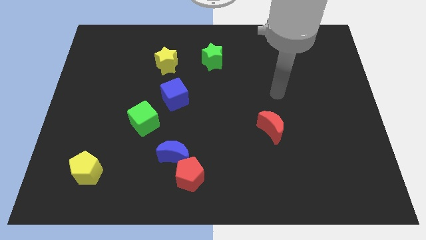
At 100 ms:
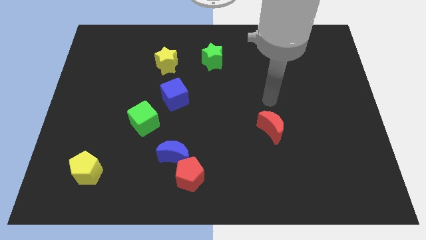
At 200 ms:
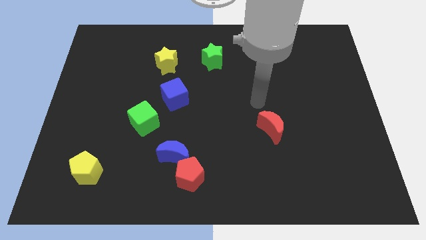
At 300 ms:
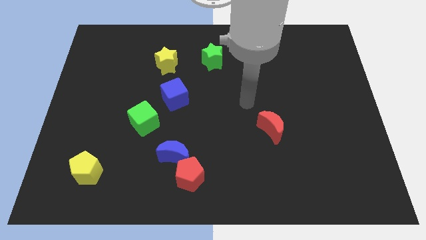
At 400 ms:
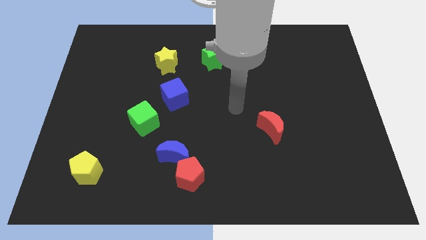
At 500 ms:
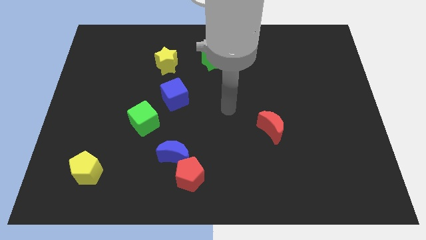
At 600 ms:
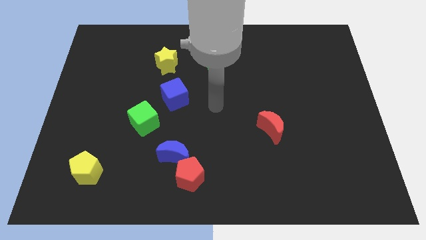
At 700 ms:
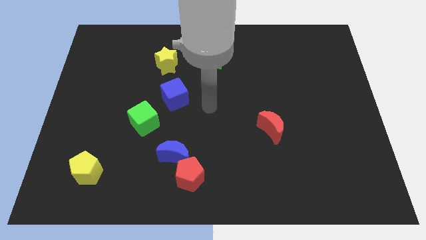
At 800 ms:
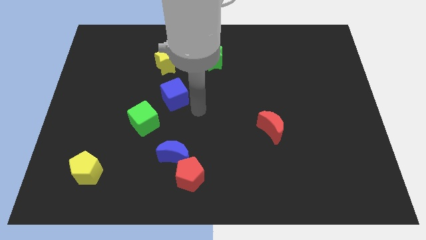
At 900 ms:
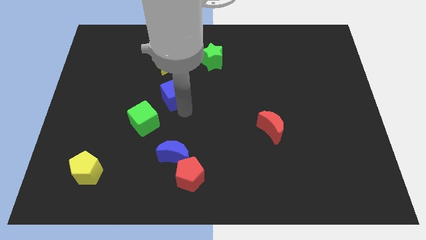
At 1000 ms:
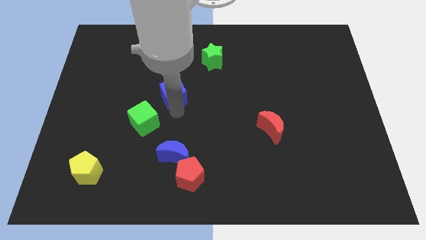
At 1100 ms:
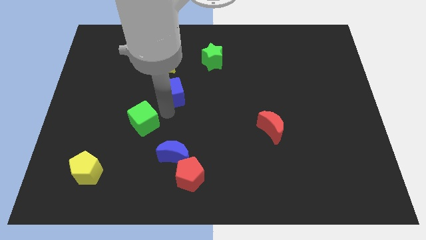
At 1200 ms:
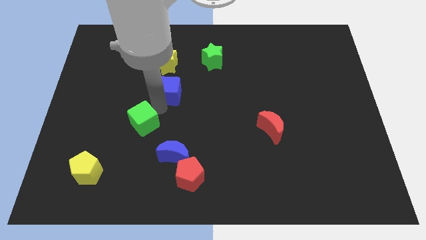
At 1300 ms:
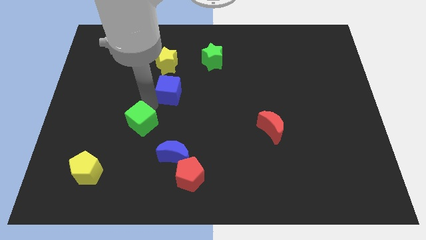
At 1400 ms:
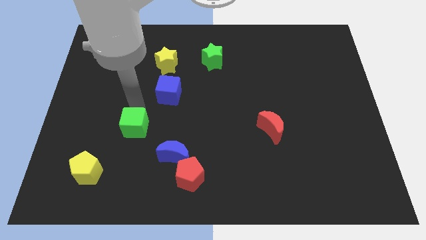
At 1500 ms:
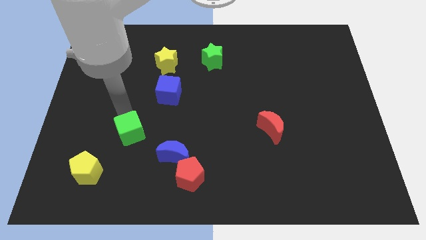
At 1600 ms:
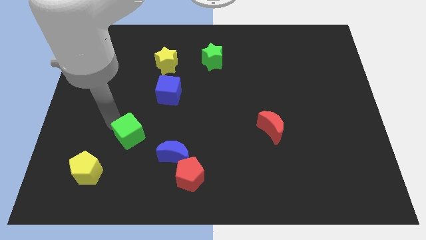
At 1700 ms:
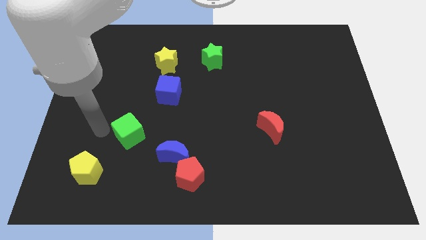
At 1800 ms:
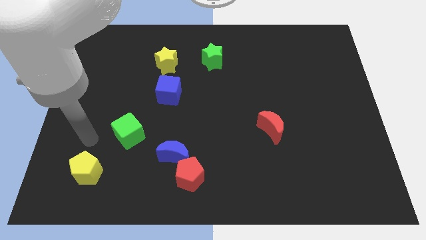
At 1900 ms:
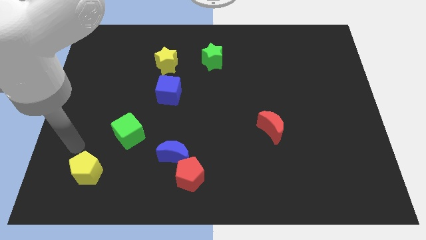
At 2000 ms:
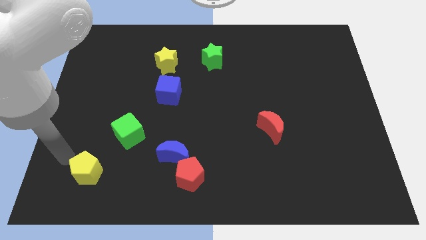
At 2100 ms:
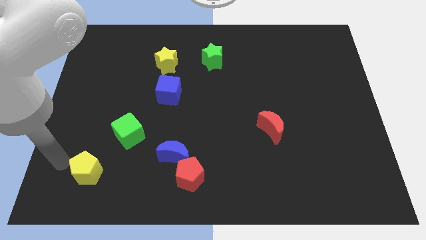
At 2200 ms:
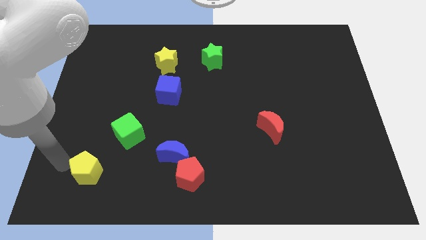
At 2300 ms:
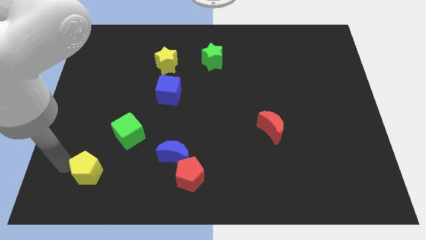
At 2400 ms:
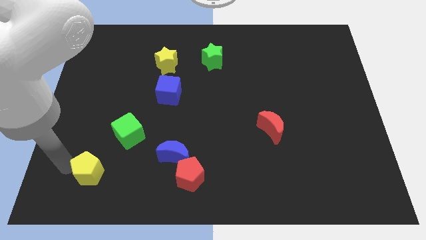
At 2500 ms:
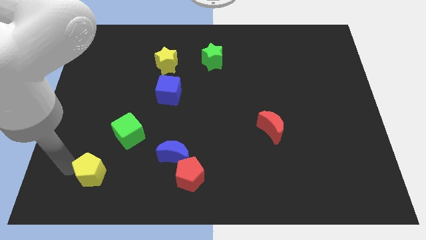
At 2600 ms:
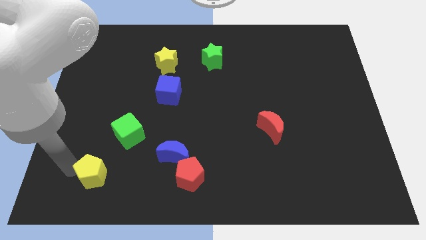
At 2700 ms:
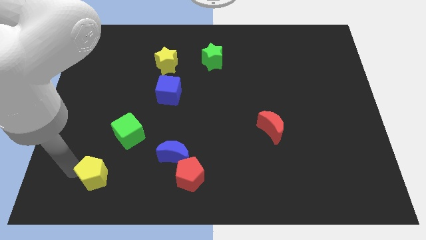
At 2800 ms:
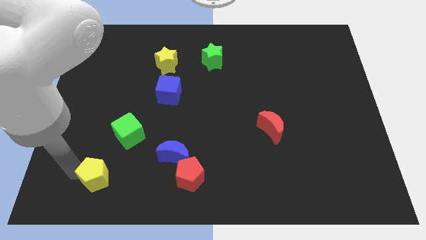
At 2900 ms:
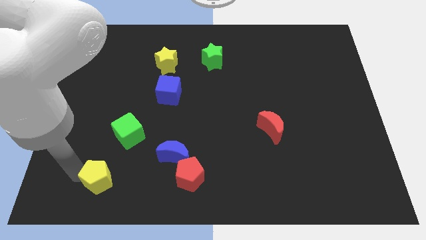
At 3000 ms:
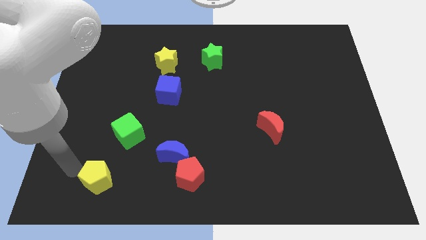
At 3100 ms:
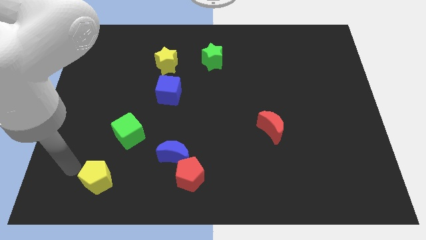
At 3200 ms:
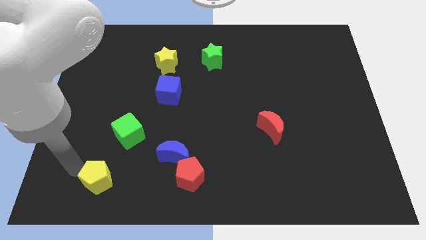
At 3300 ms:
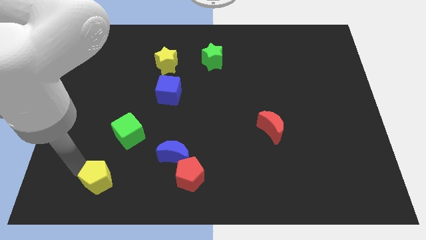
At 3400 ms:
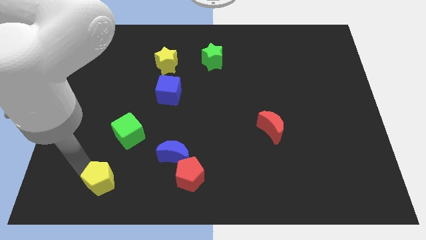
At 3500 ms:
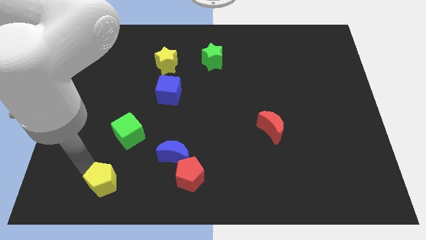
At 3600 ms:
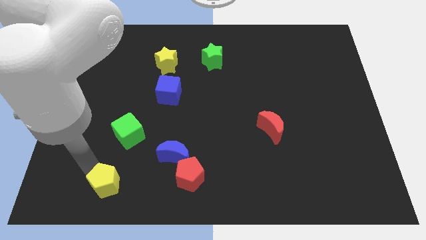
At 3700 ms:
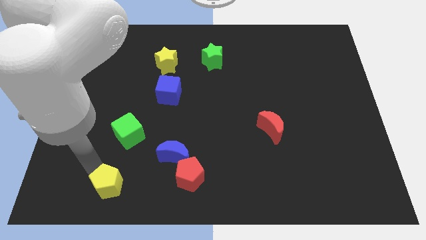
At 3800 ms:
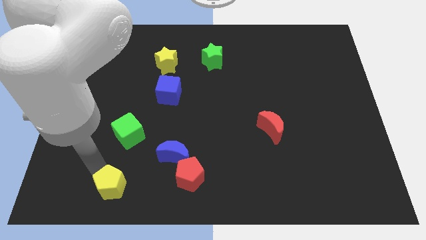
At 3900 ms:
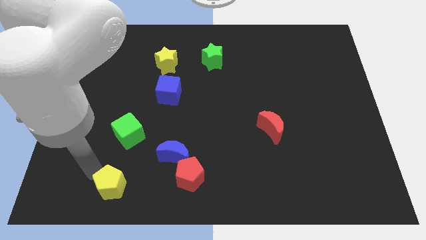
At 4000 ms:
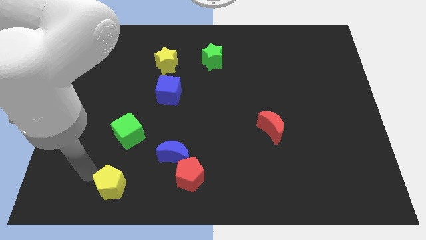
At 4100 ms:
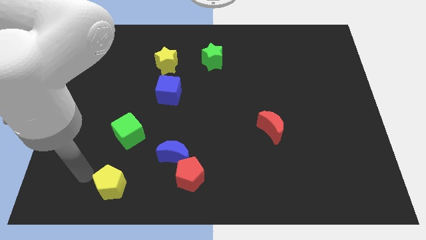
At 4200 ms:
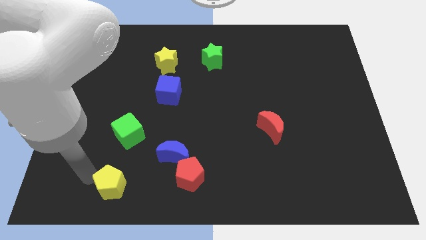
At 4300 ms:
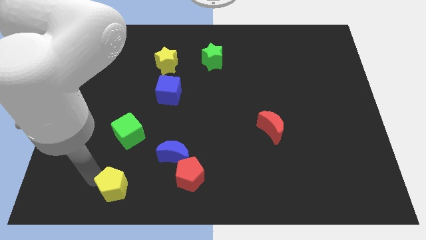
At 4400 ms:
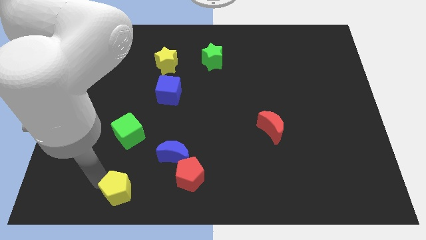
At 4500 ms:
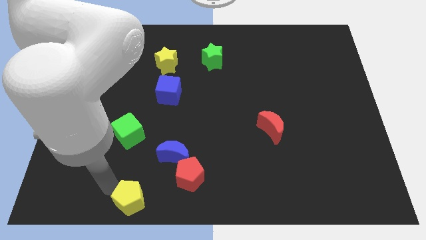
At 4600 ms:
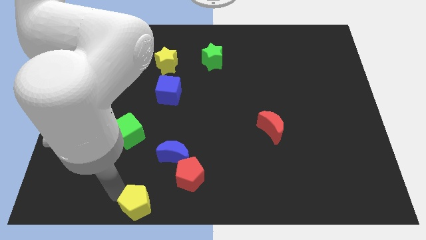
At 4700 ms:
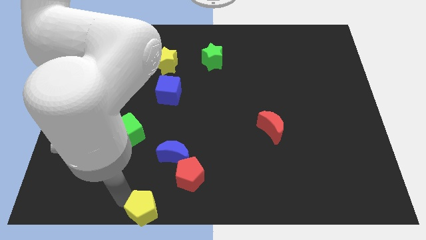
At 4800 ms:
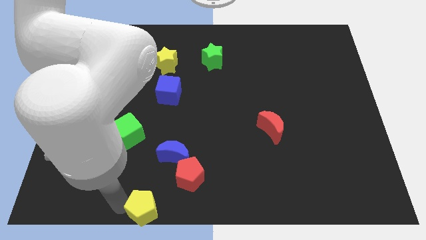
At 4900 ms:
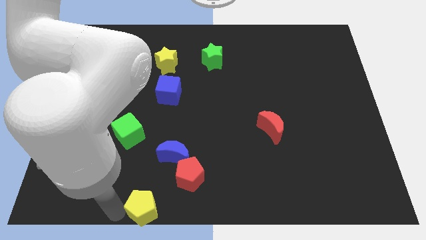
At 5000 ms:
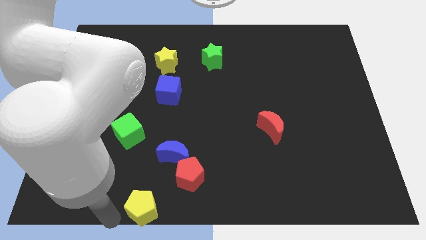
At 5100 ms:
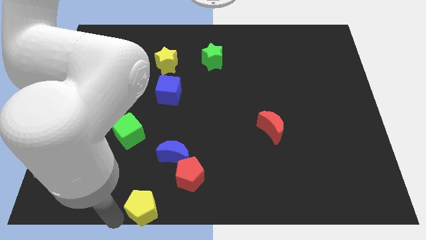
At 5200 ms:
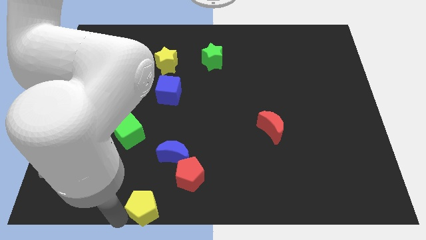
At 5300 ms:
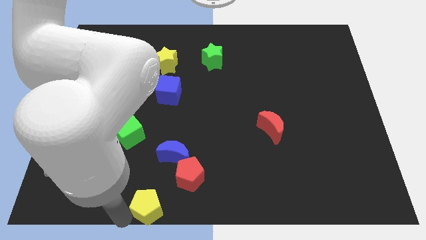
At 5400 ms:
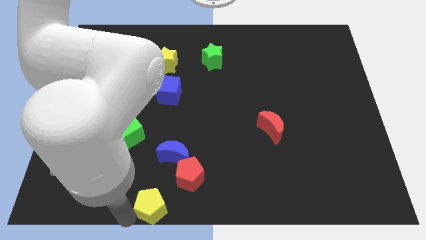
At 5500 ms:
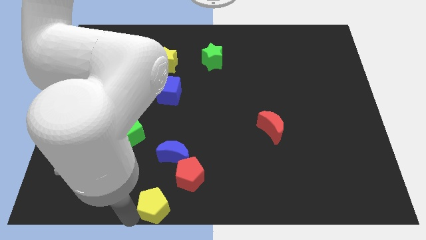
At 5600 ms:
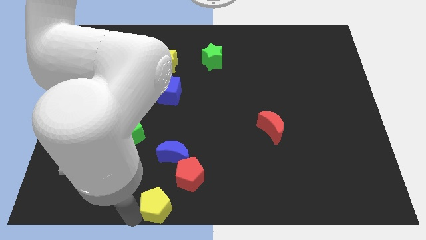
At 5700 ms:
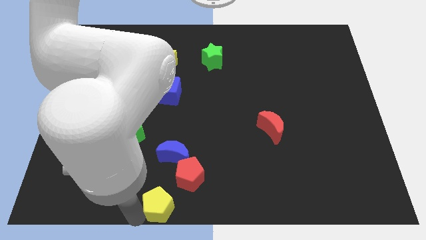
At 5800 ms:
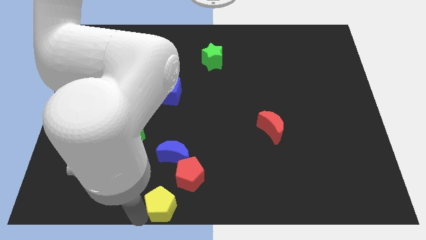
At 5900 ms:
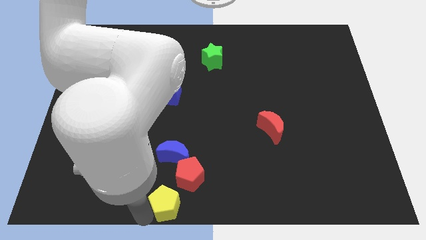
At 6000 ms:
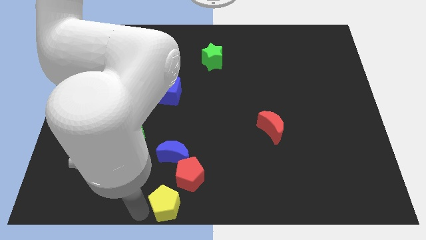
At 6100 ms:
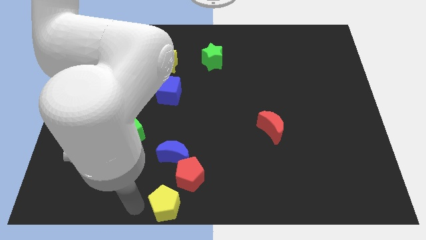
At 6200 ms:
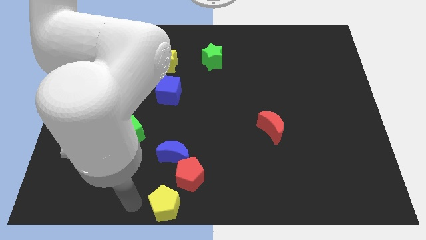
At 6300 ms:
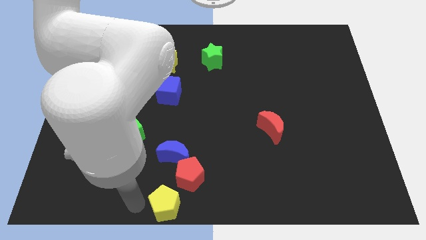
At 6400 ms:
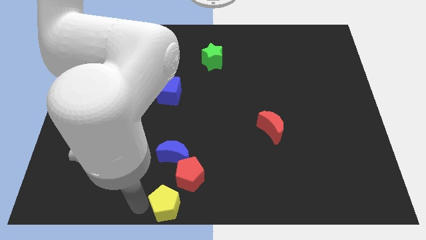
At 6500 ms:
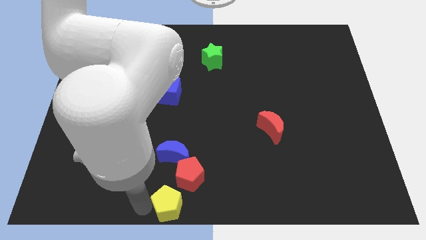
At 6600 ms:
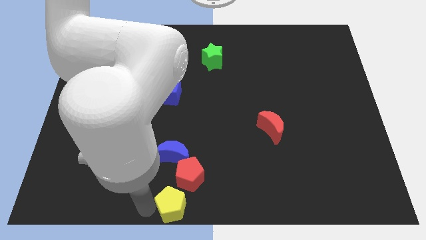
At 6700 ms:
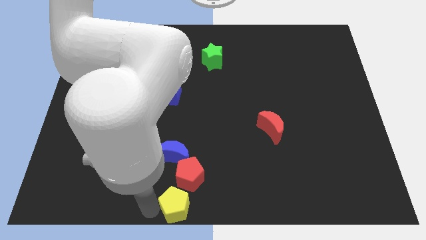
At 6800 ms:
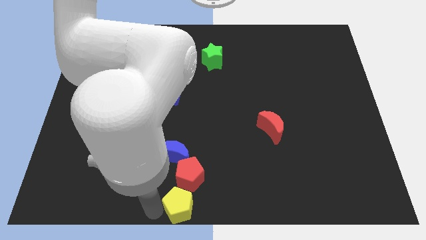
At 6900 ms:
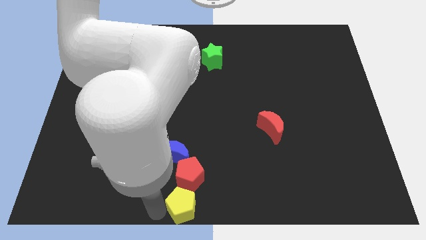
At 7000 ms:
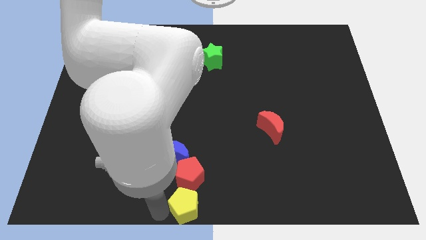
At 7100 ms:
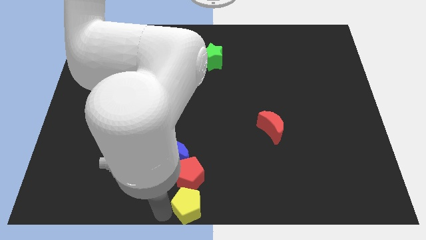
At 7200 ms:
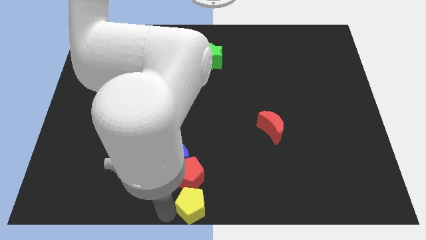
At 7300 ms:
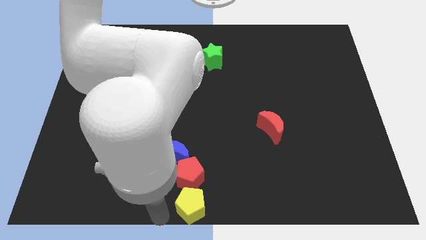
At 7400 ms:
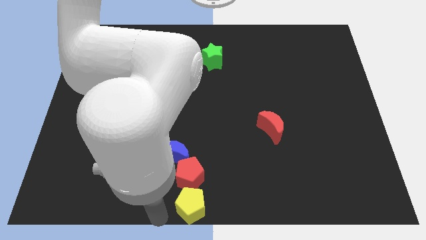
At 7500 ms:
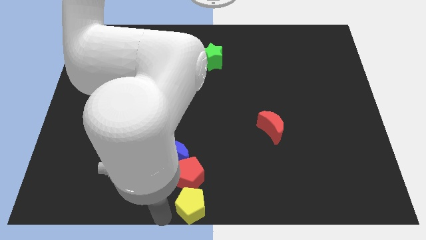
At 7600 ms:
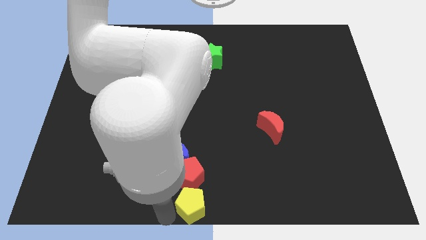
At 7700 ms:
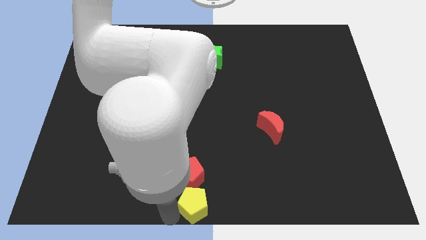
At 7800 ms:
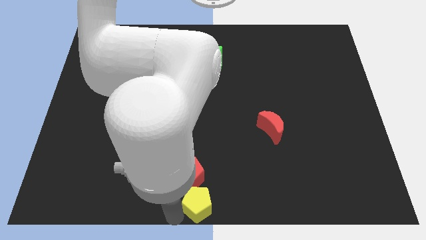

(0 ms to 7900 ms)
slide the yellow pentagon to the right
